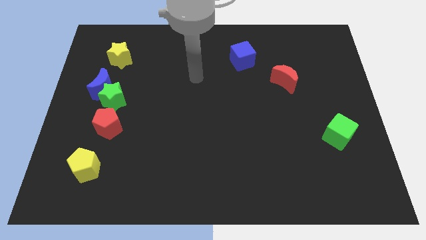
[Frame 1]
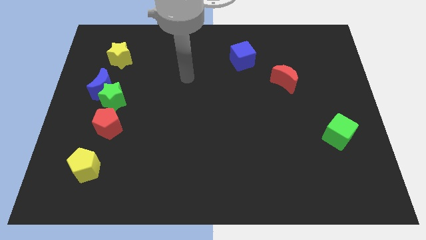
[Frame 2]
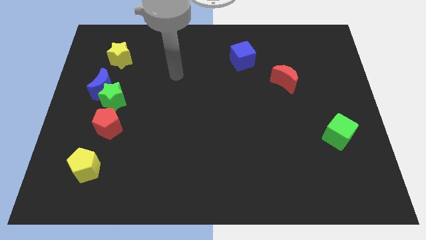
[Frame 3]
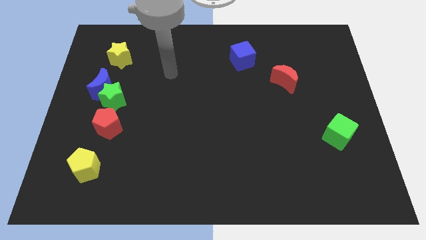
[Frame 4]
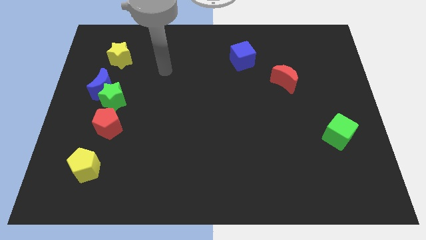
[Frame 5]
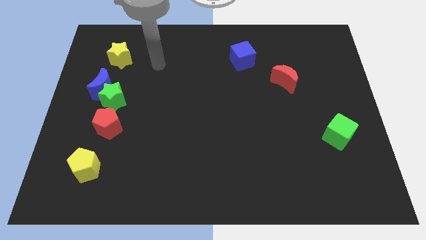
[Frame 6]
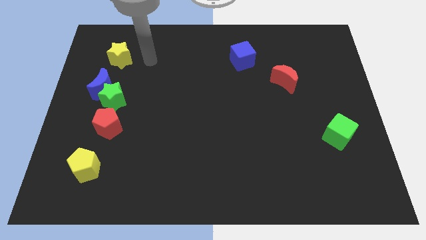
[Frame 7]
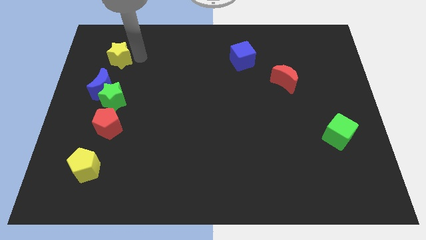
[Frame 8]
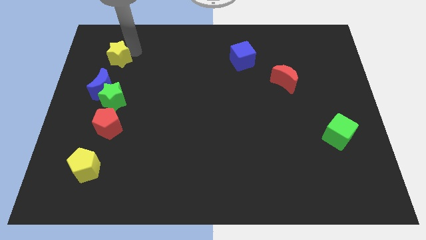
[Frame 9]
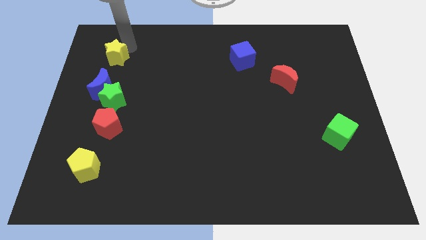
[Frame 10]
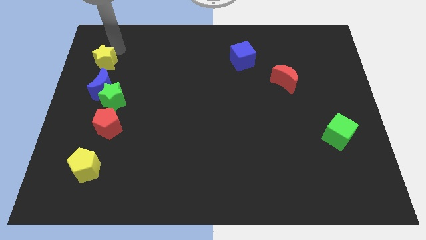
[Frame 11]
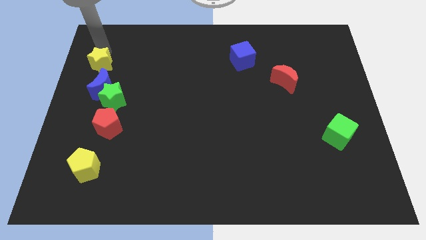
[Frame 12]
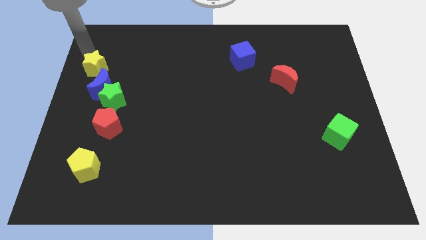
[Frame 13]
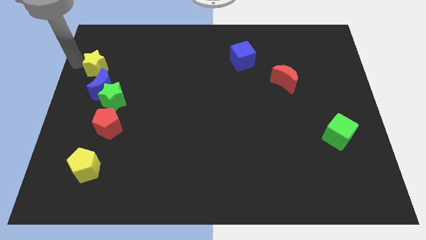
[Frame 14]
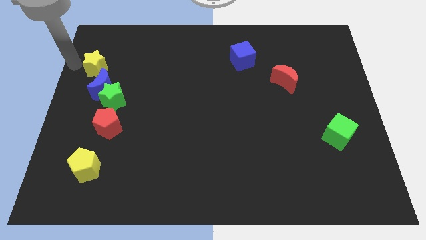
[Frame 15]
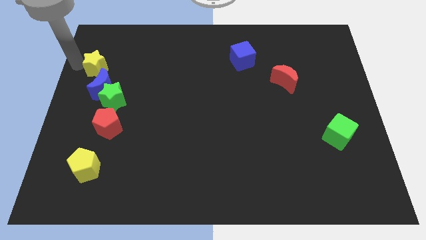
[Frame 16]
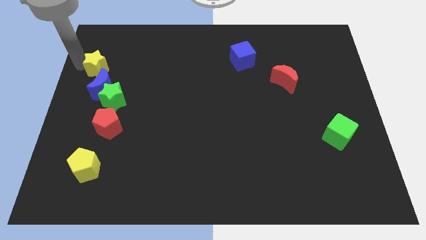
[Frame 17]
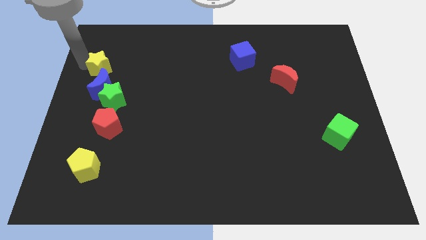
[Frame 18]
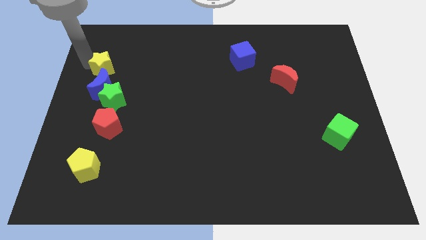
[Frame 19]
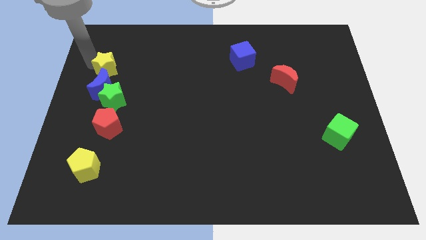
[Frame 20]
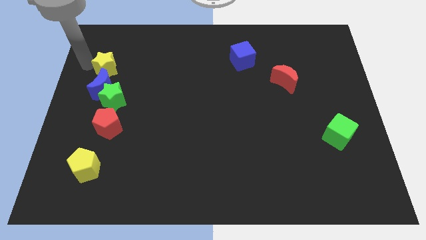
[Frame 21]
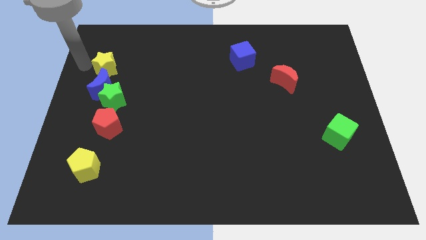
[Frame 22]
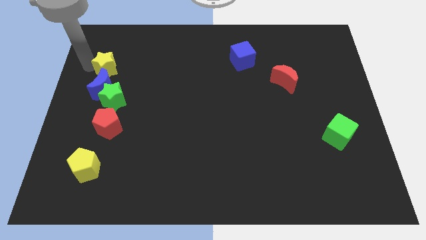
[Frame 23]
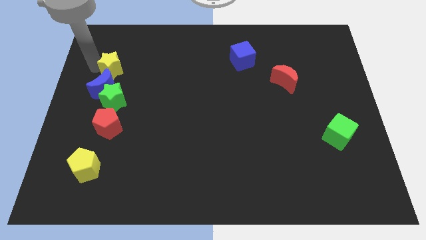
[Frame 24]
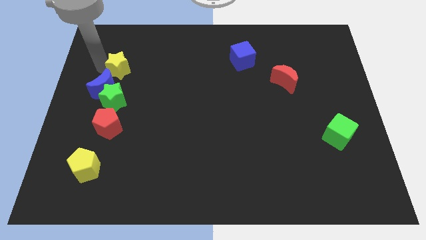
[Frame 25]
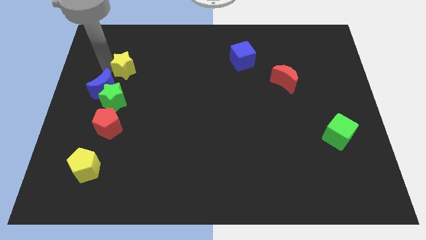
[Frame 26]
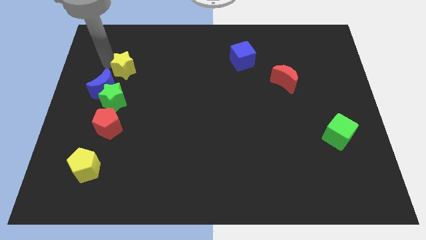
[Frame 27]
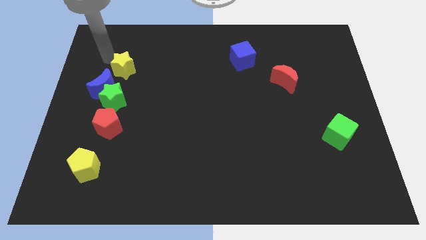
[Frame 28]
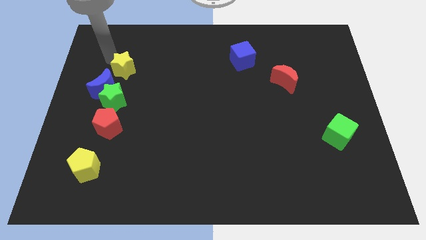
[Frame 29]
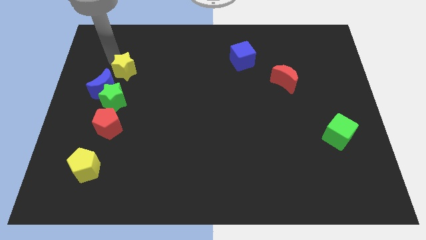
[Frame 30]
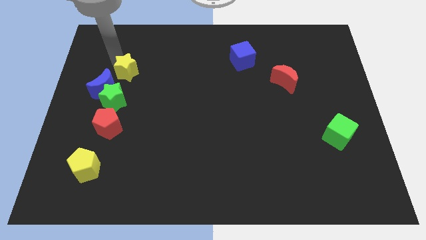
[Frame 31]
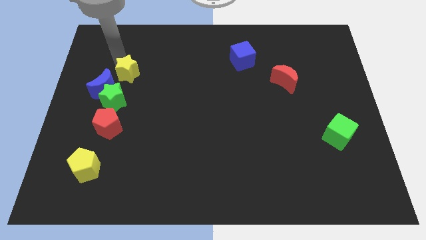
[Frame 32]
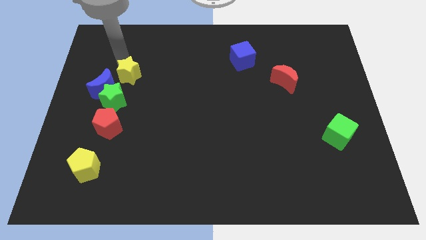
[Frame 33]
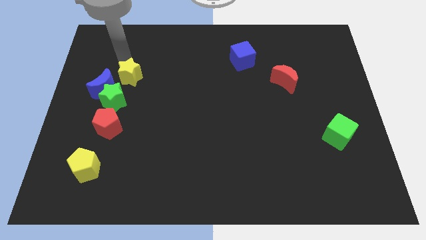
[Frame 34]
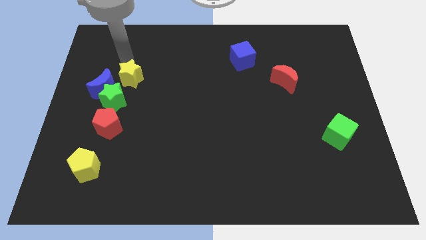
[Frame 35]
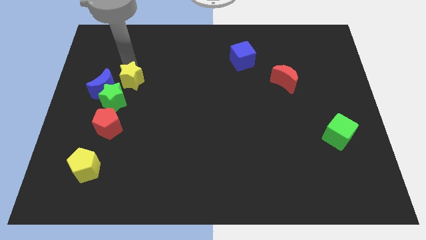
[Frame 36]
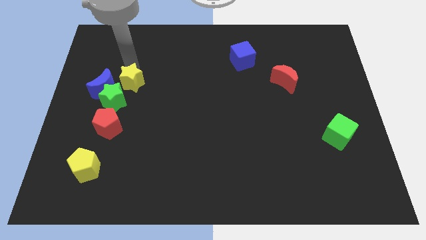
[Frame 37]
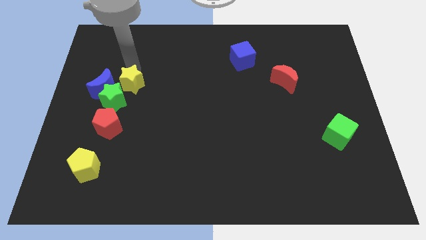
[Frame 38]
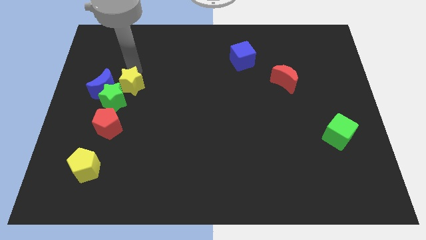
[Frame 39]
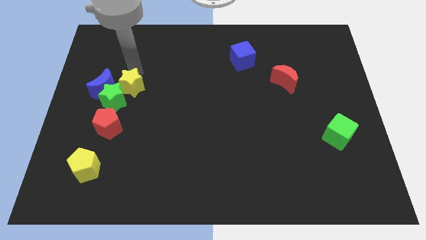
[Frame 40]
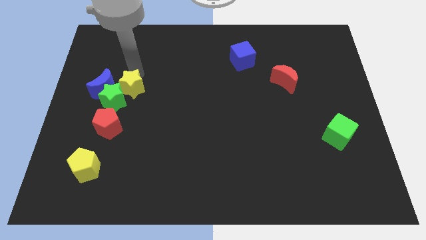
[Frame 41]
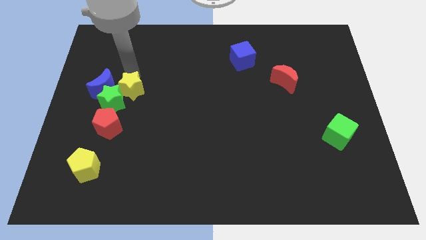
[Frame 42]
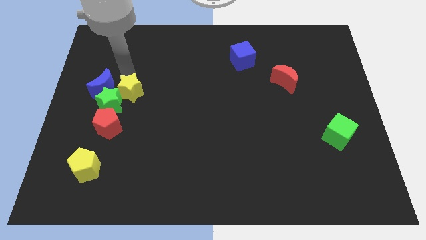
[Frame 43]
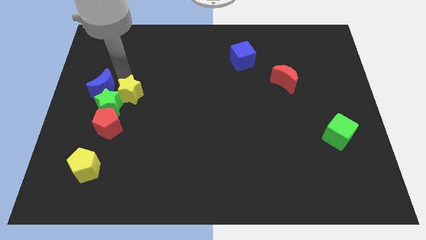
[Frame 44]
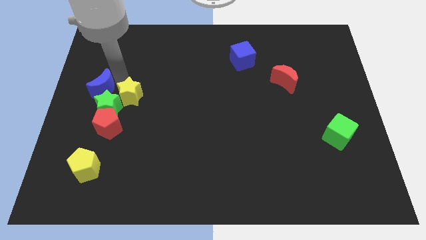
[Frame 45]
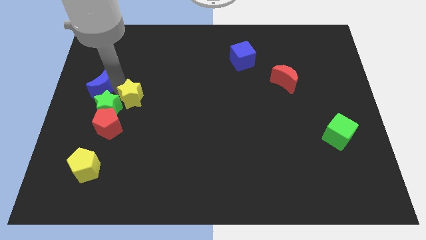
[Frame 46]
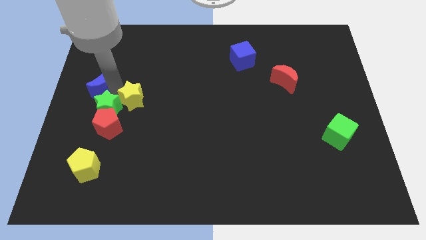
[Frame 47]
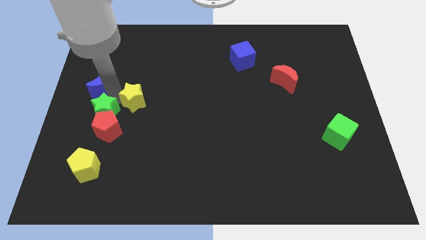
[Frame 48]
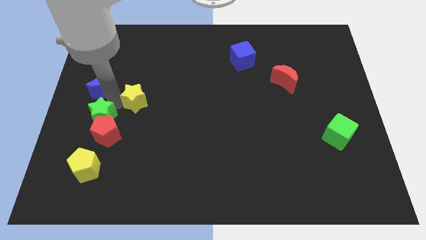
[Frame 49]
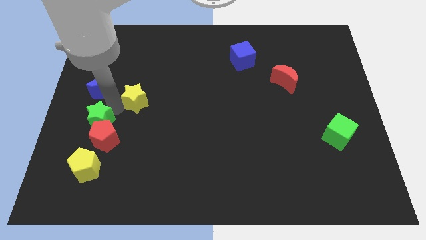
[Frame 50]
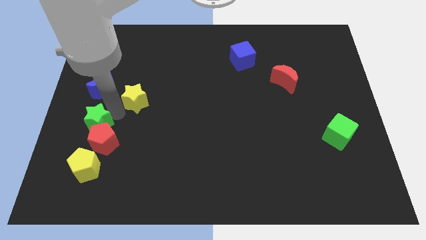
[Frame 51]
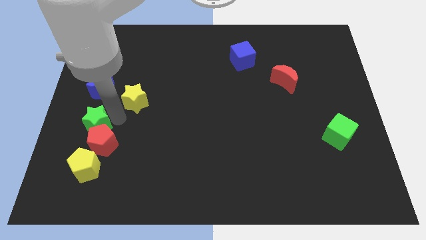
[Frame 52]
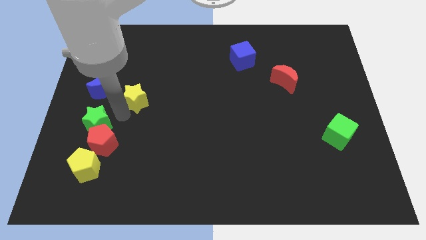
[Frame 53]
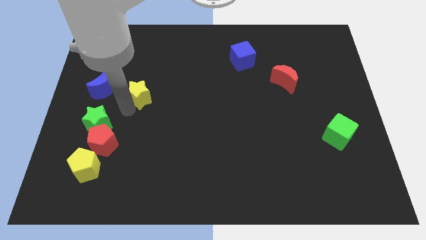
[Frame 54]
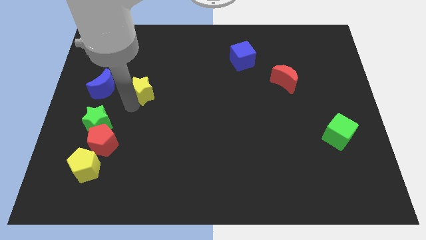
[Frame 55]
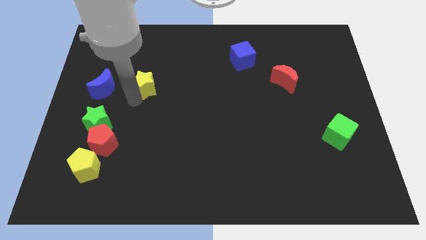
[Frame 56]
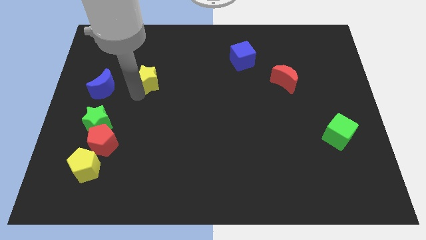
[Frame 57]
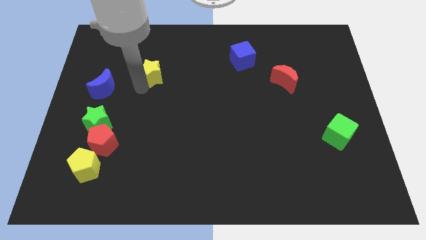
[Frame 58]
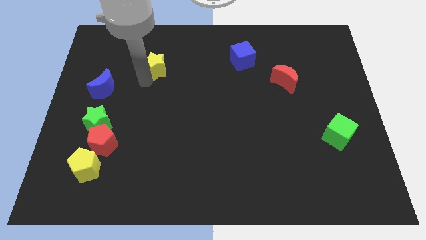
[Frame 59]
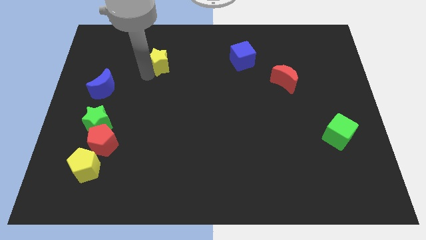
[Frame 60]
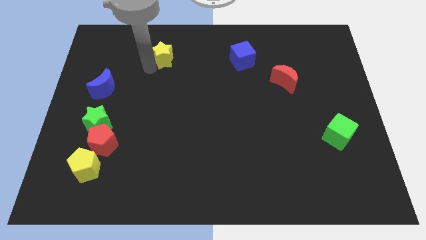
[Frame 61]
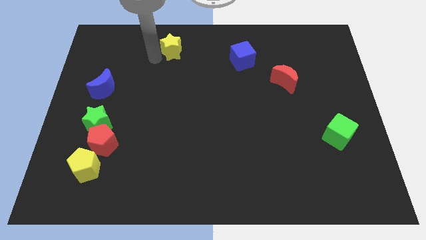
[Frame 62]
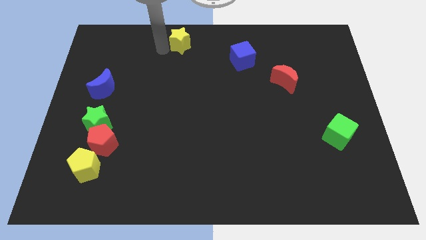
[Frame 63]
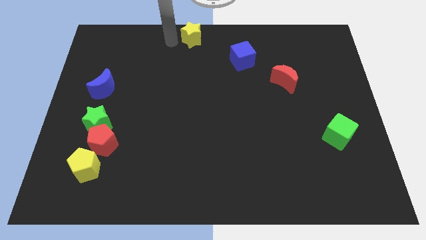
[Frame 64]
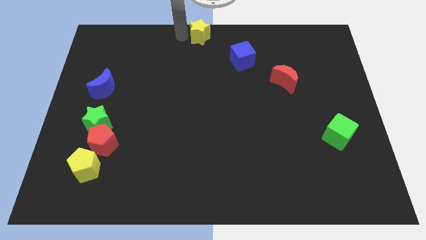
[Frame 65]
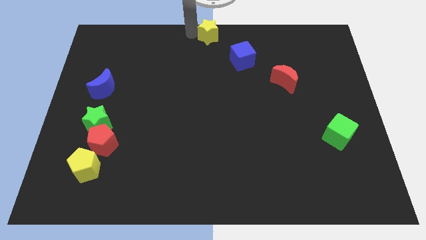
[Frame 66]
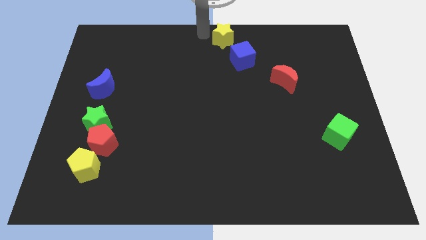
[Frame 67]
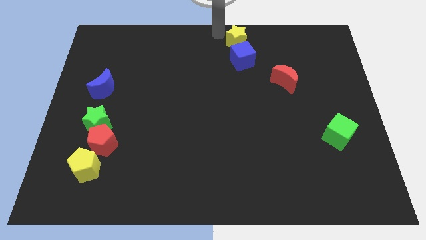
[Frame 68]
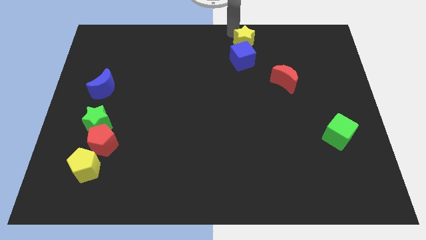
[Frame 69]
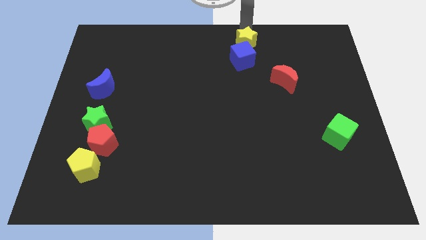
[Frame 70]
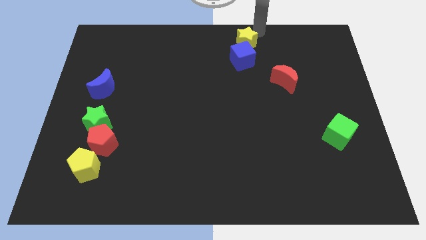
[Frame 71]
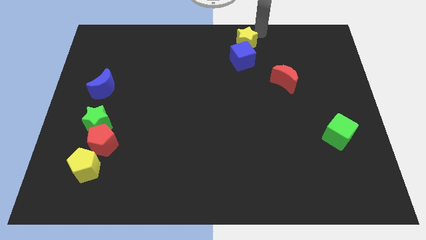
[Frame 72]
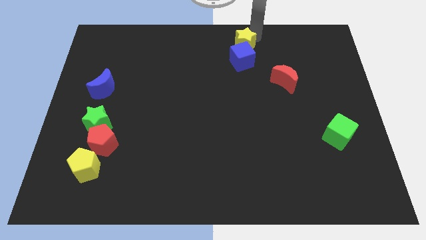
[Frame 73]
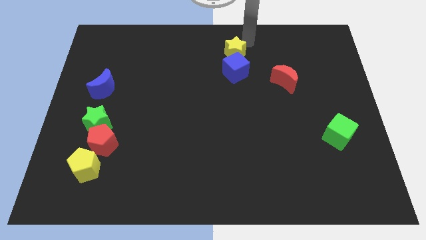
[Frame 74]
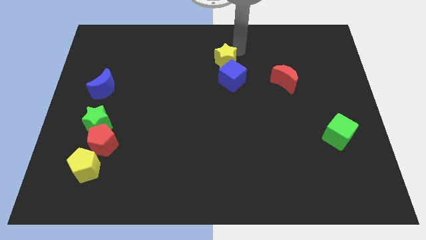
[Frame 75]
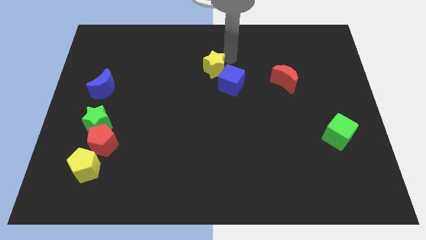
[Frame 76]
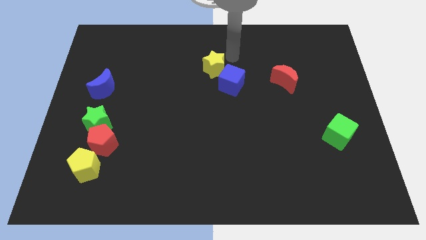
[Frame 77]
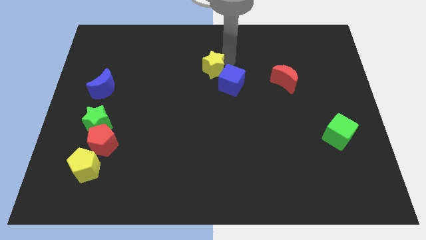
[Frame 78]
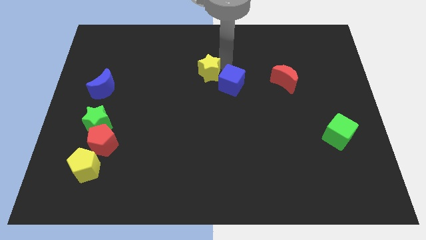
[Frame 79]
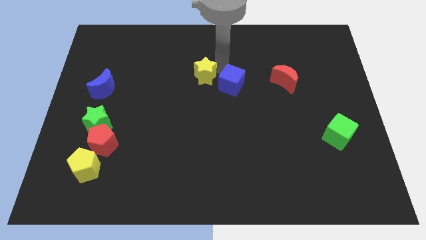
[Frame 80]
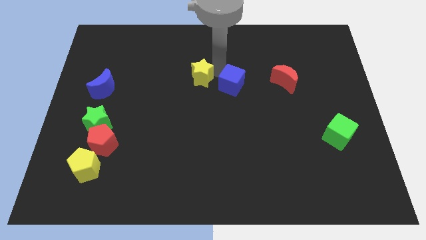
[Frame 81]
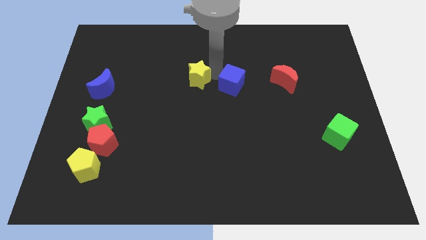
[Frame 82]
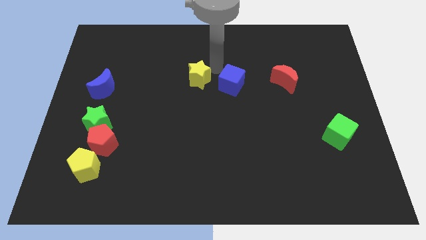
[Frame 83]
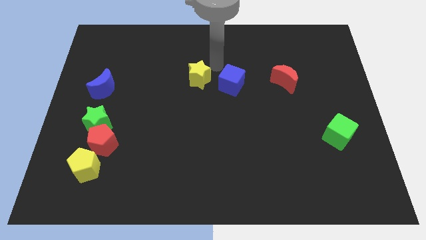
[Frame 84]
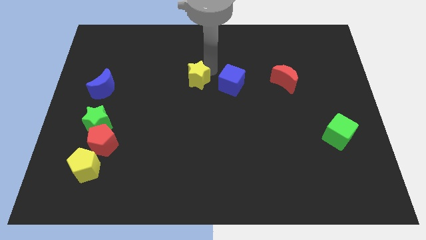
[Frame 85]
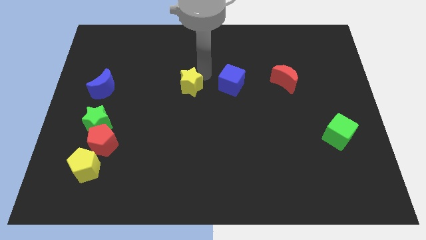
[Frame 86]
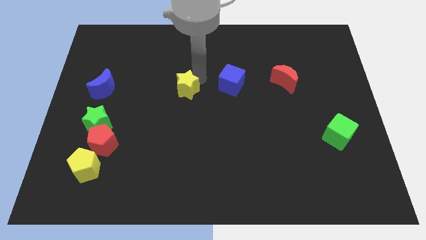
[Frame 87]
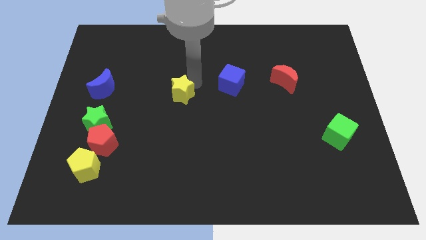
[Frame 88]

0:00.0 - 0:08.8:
push the yellow star down and to the right diagonally
